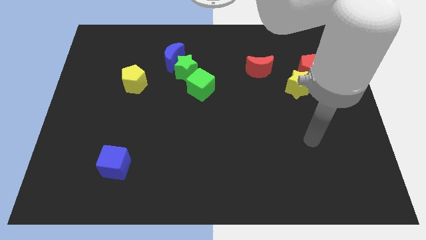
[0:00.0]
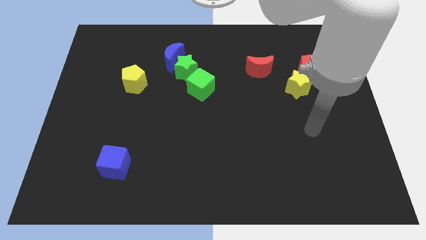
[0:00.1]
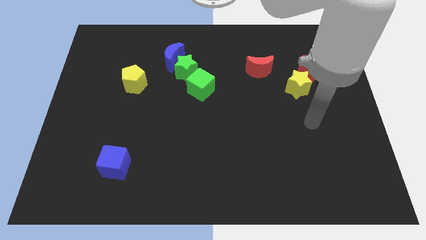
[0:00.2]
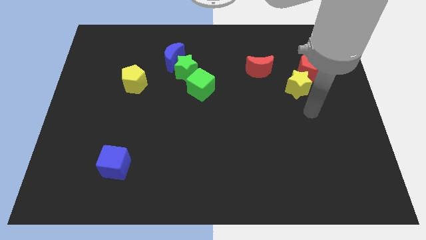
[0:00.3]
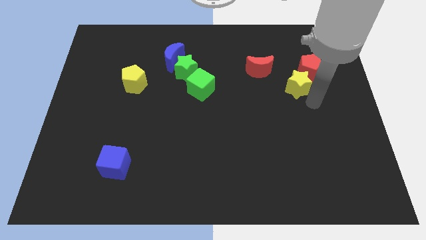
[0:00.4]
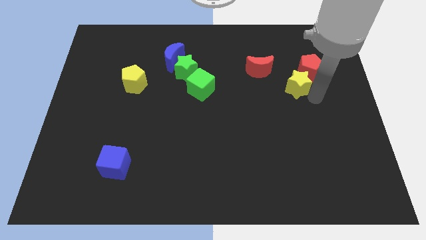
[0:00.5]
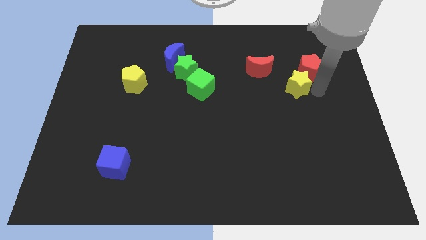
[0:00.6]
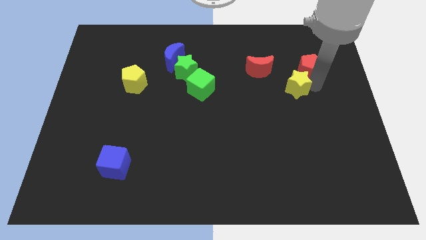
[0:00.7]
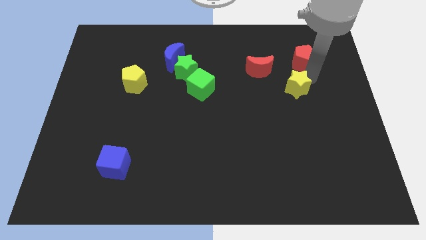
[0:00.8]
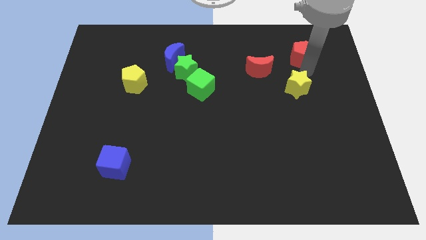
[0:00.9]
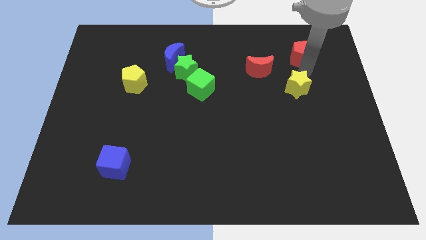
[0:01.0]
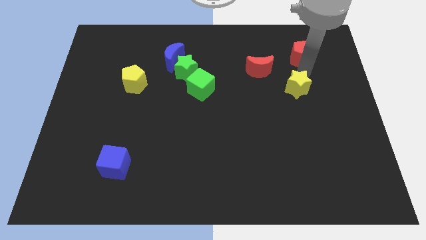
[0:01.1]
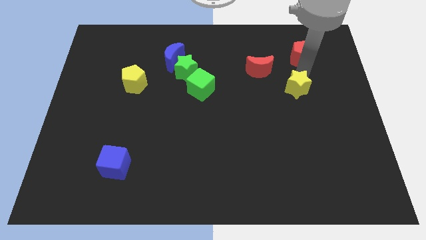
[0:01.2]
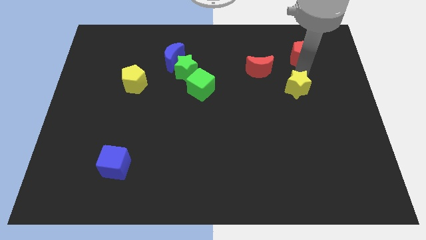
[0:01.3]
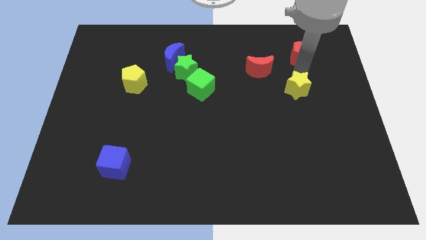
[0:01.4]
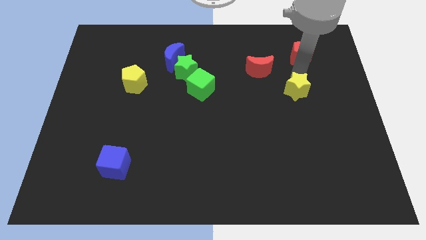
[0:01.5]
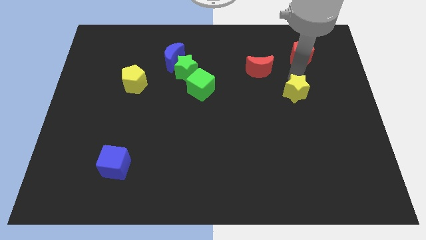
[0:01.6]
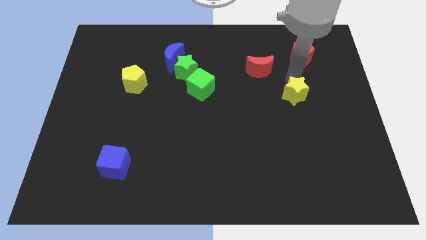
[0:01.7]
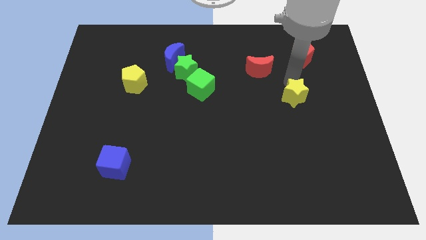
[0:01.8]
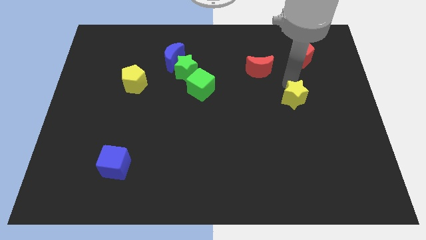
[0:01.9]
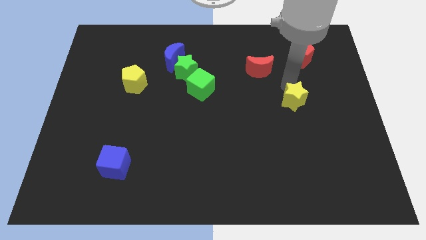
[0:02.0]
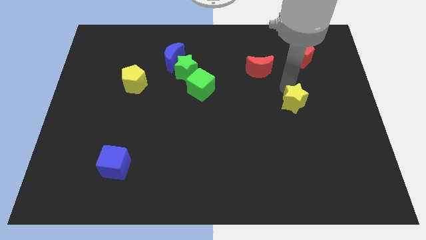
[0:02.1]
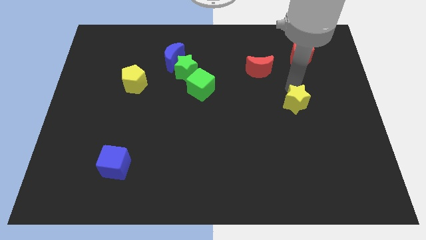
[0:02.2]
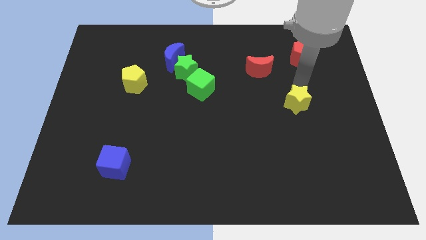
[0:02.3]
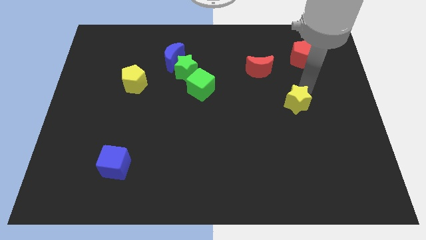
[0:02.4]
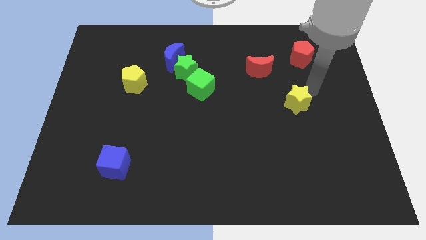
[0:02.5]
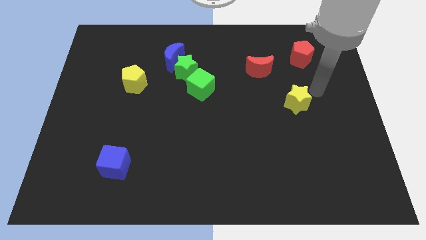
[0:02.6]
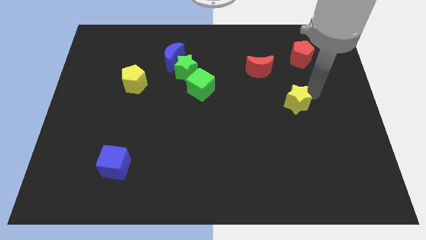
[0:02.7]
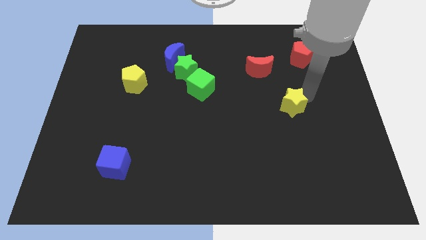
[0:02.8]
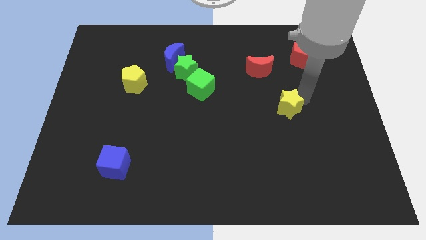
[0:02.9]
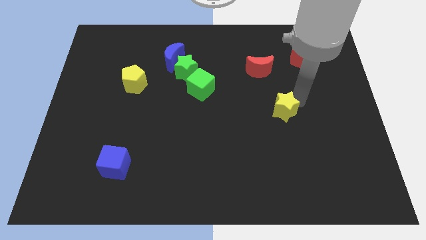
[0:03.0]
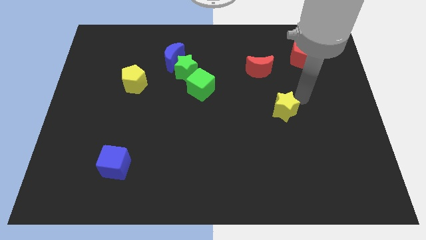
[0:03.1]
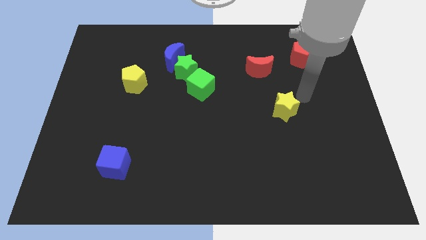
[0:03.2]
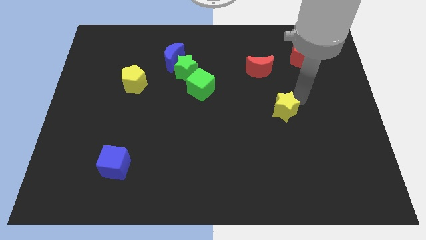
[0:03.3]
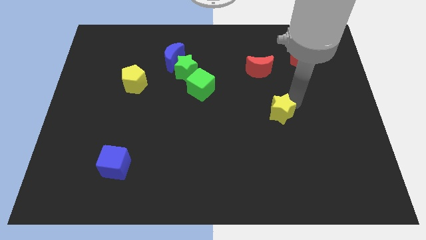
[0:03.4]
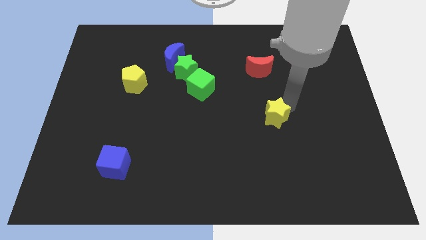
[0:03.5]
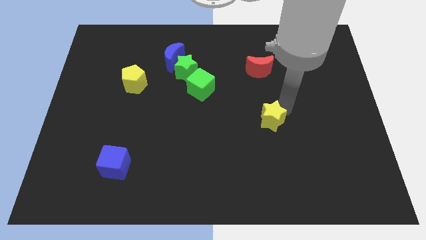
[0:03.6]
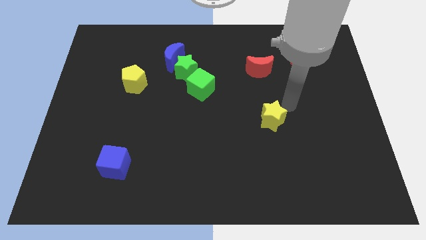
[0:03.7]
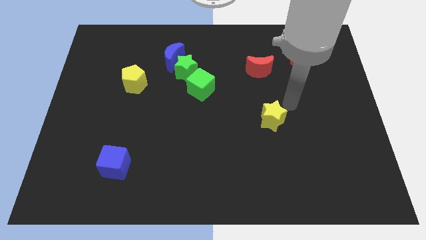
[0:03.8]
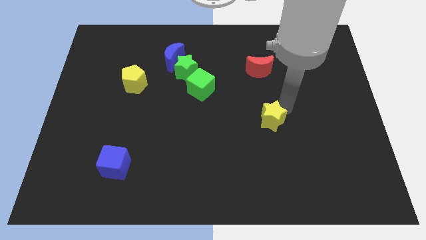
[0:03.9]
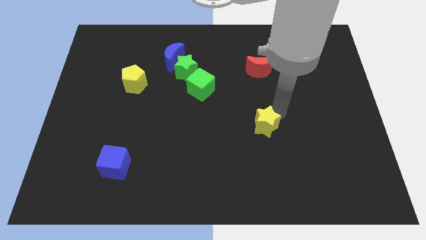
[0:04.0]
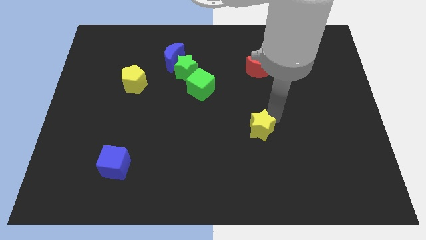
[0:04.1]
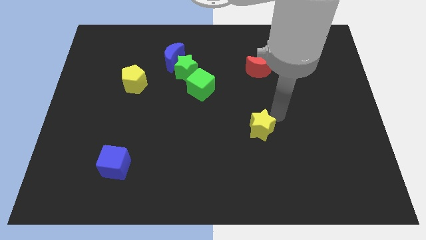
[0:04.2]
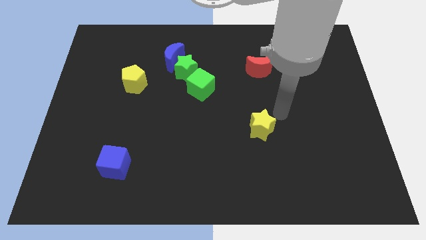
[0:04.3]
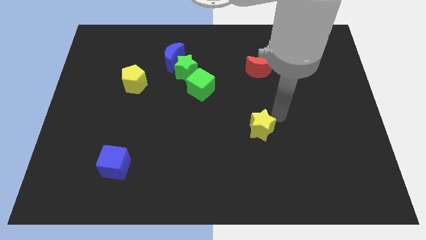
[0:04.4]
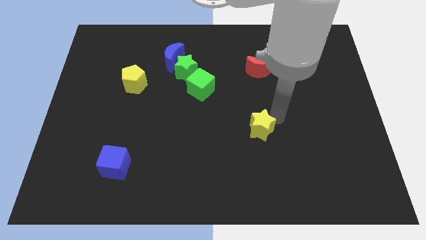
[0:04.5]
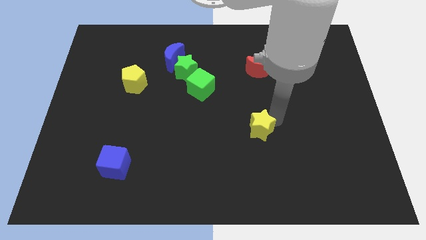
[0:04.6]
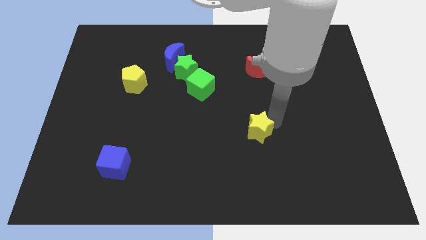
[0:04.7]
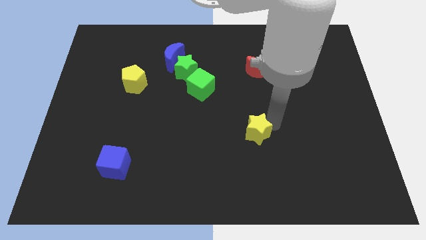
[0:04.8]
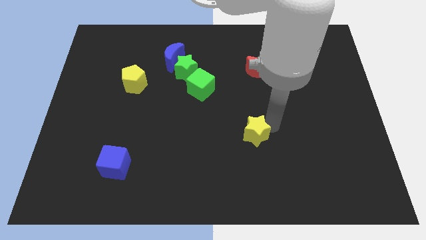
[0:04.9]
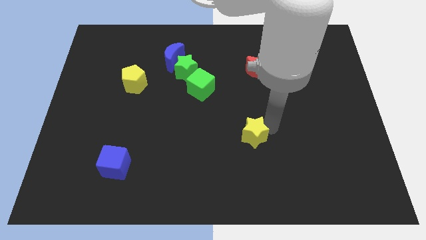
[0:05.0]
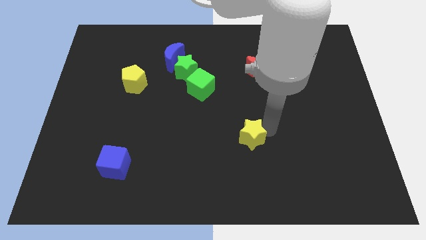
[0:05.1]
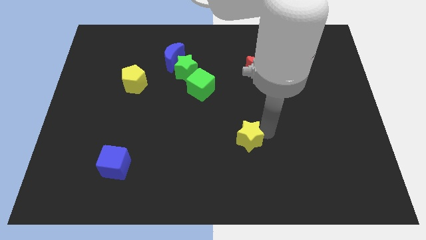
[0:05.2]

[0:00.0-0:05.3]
slide the yellow star down and left

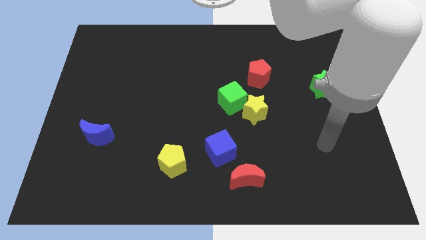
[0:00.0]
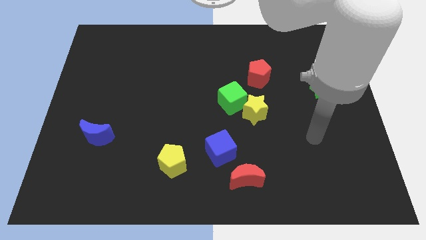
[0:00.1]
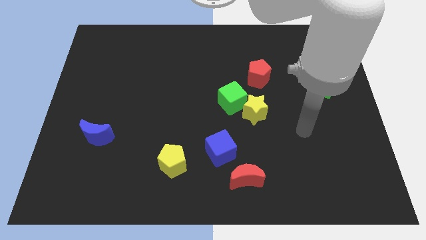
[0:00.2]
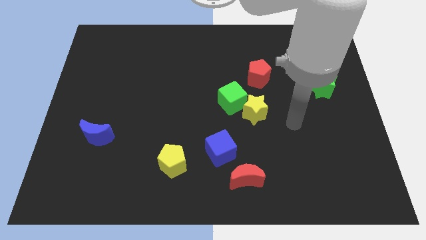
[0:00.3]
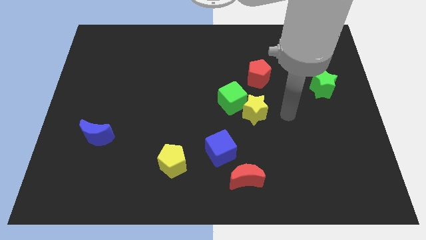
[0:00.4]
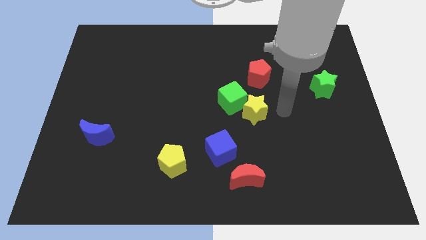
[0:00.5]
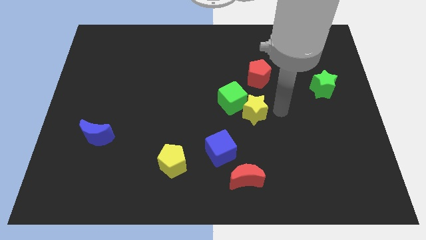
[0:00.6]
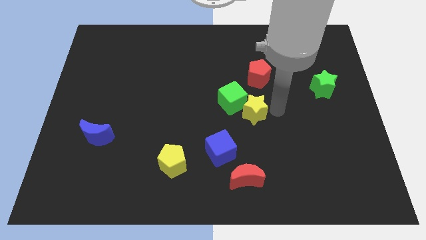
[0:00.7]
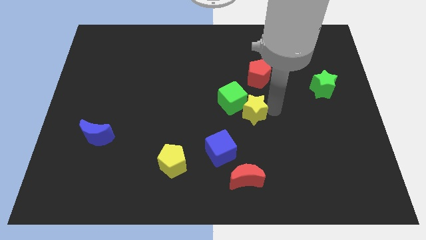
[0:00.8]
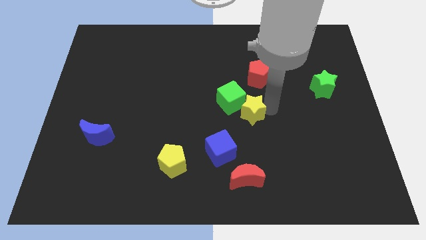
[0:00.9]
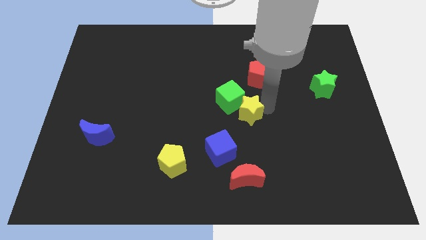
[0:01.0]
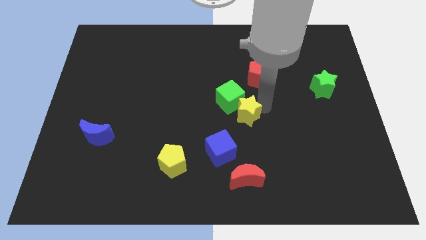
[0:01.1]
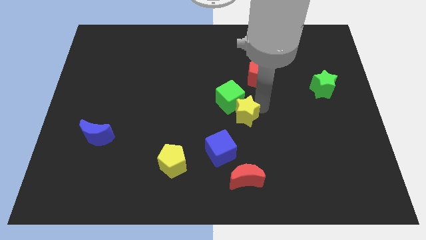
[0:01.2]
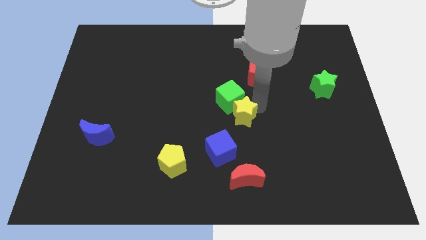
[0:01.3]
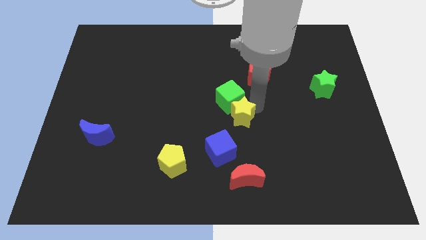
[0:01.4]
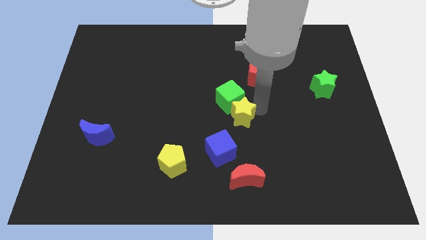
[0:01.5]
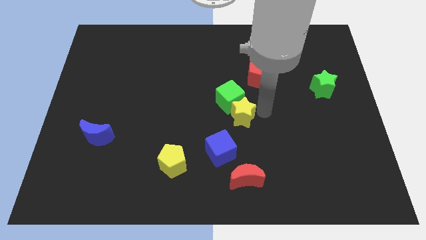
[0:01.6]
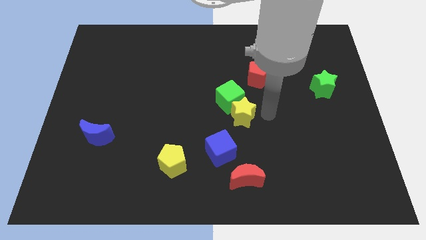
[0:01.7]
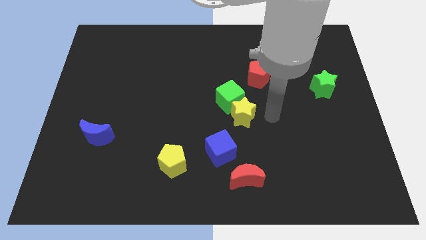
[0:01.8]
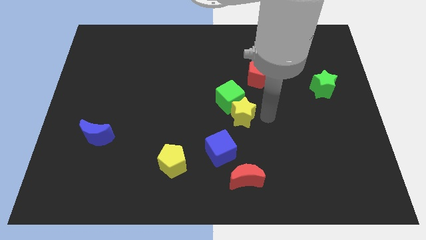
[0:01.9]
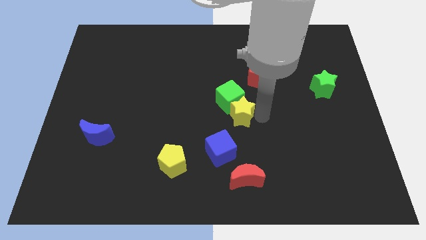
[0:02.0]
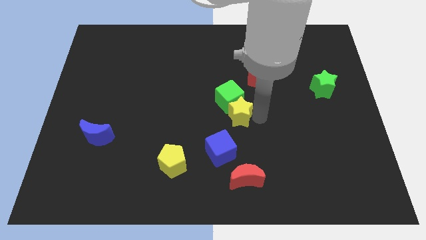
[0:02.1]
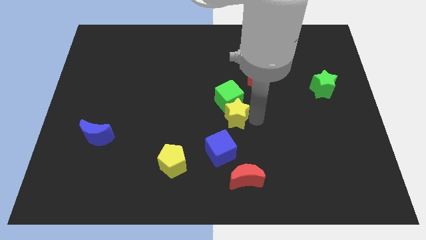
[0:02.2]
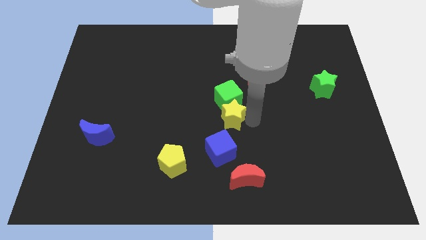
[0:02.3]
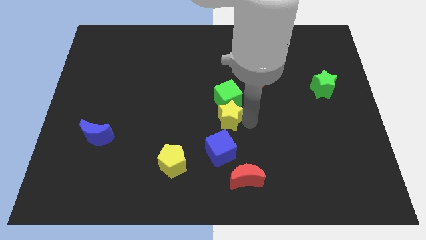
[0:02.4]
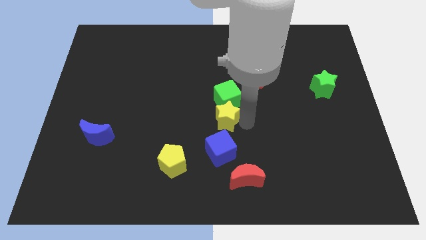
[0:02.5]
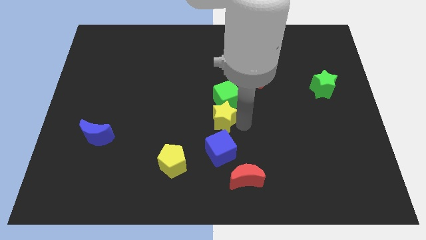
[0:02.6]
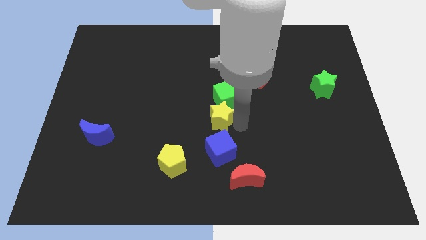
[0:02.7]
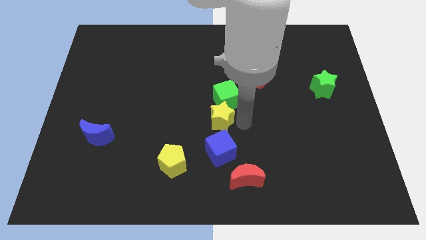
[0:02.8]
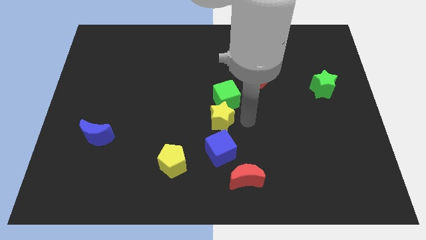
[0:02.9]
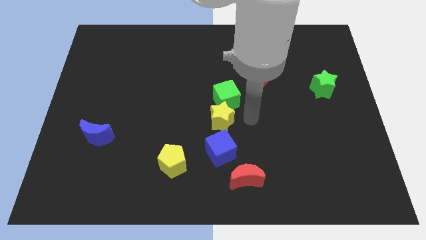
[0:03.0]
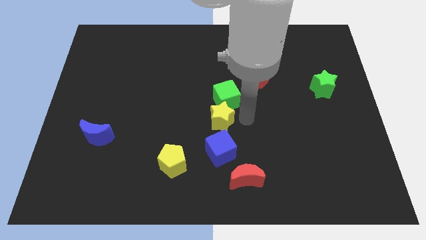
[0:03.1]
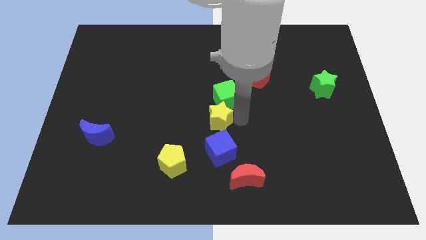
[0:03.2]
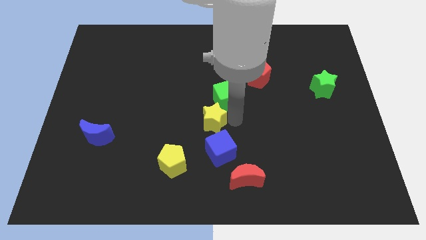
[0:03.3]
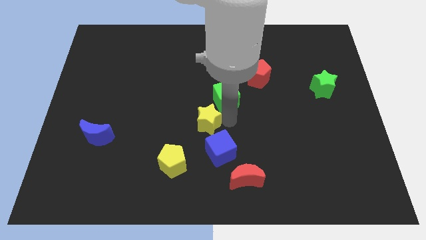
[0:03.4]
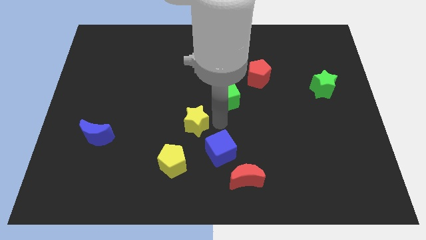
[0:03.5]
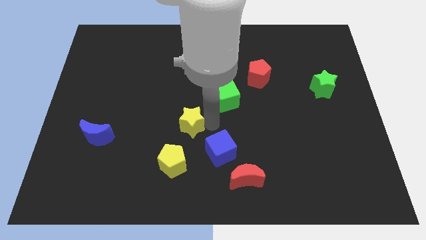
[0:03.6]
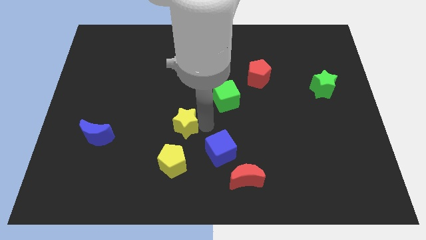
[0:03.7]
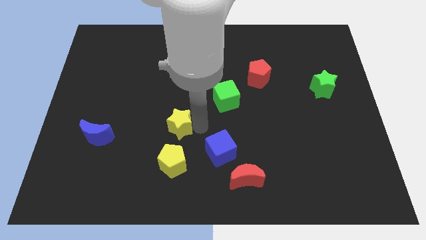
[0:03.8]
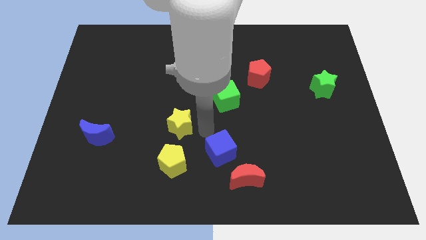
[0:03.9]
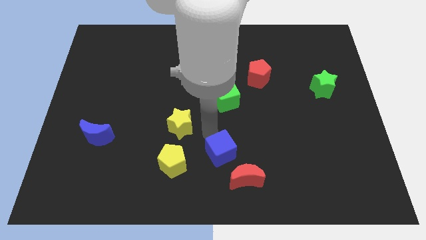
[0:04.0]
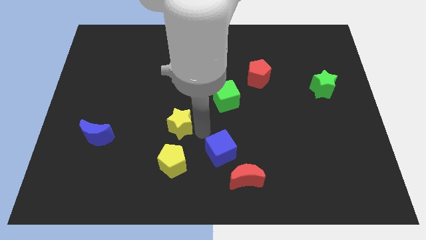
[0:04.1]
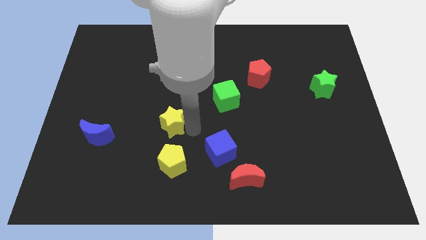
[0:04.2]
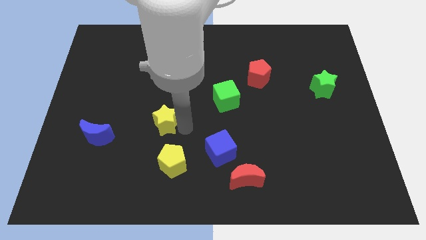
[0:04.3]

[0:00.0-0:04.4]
slide the yellow star to the left
